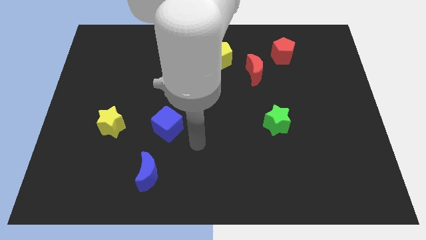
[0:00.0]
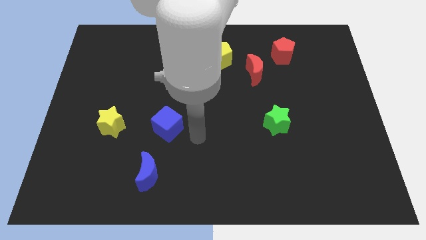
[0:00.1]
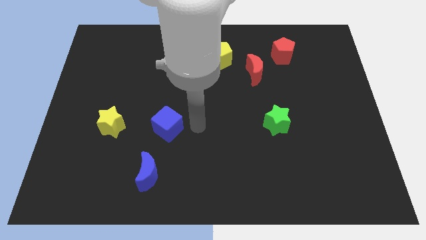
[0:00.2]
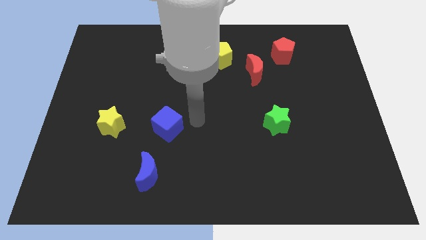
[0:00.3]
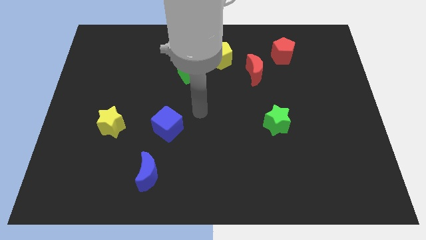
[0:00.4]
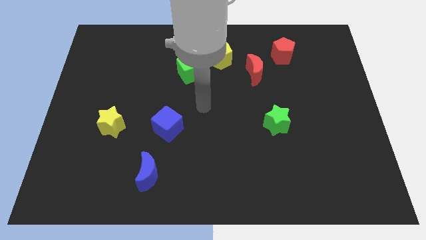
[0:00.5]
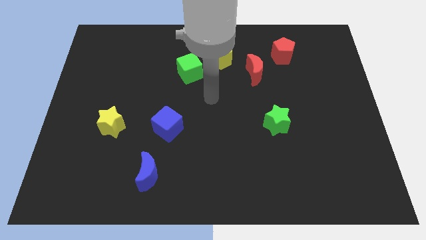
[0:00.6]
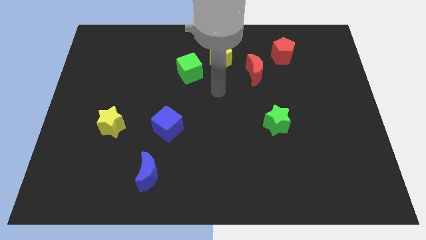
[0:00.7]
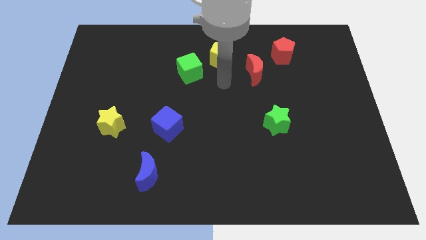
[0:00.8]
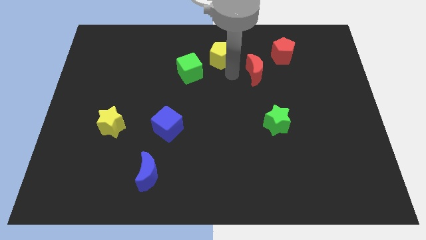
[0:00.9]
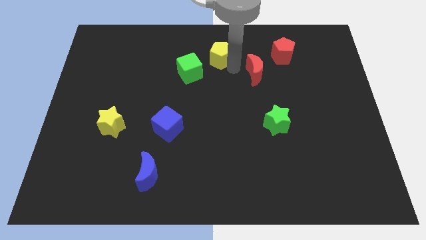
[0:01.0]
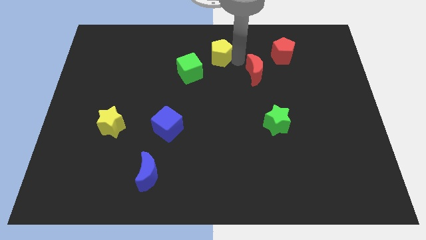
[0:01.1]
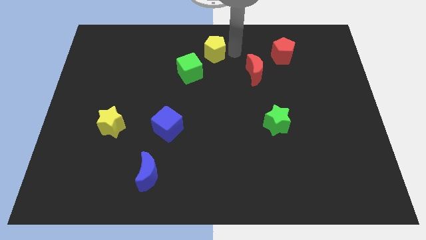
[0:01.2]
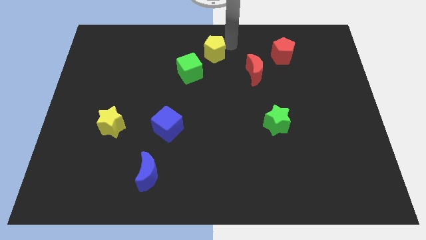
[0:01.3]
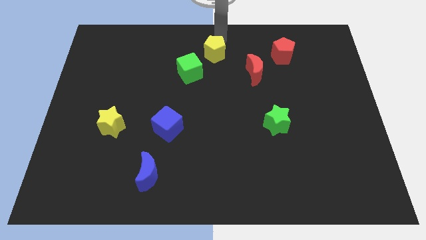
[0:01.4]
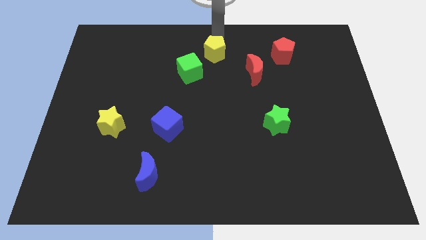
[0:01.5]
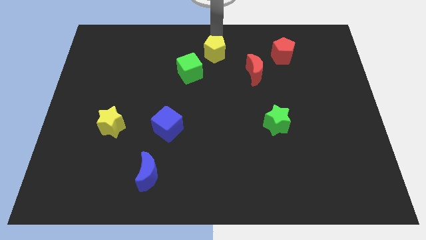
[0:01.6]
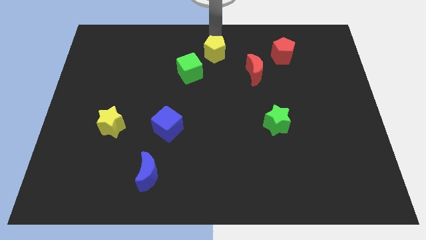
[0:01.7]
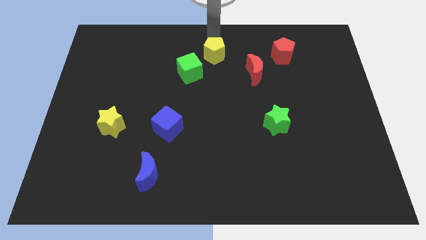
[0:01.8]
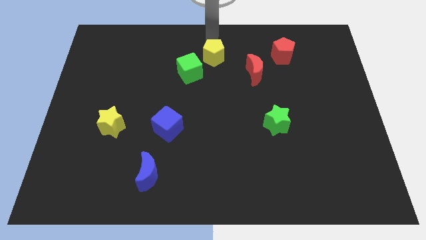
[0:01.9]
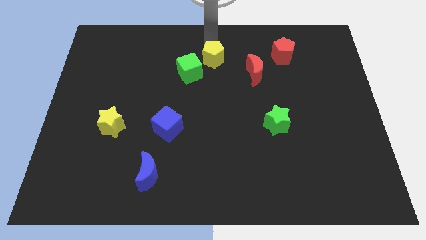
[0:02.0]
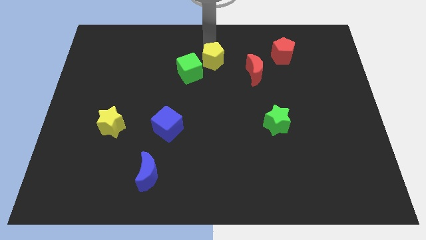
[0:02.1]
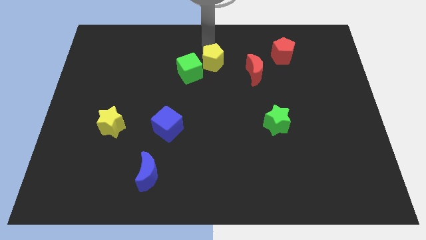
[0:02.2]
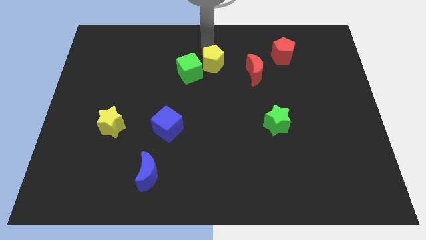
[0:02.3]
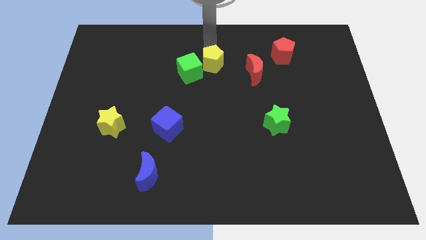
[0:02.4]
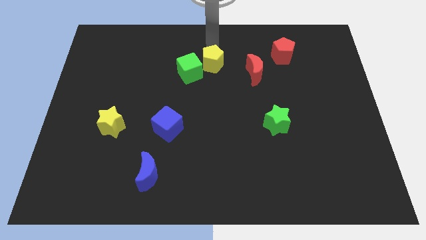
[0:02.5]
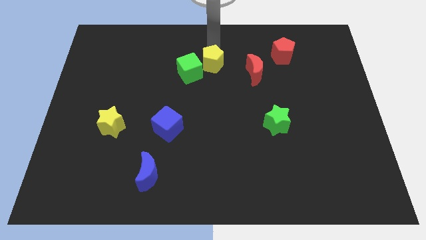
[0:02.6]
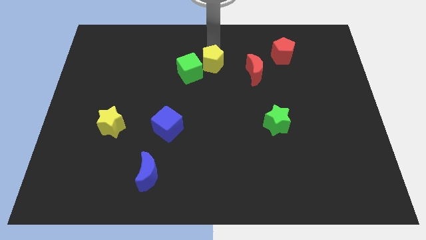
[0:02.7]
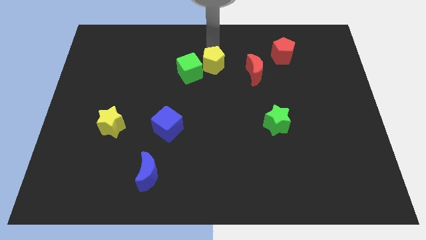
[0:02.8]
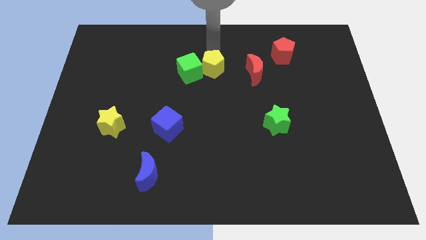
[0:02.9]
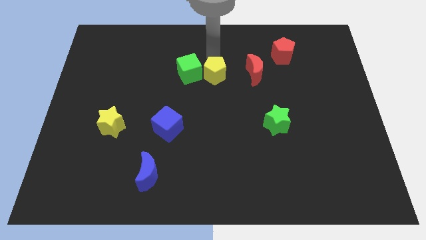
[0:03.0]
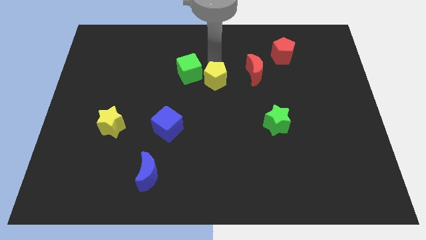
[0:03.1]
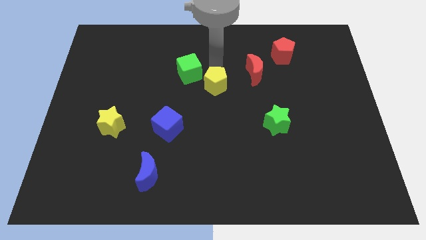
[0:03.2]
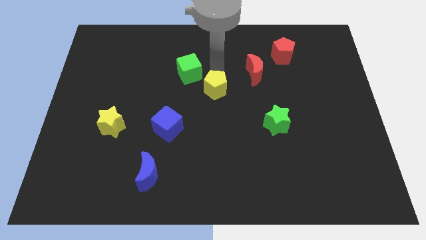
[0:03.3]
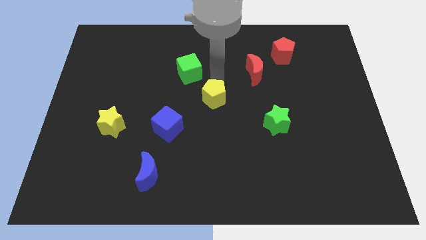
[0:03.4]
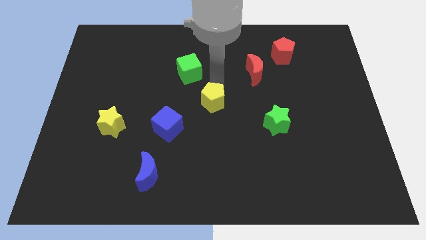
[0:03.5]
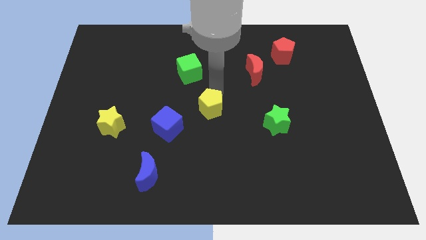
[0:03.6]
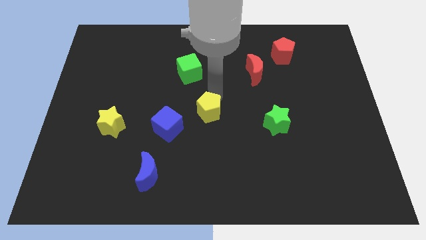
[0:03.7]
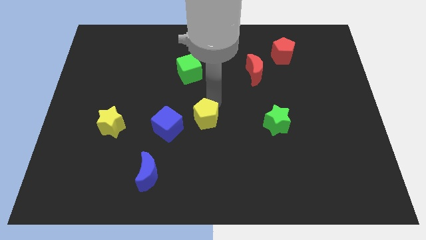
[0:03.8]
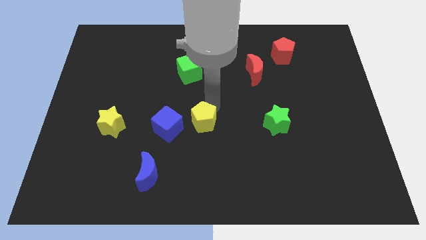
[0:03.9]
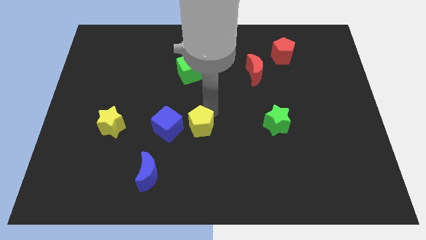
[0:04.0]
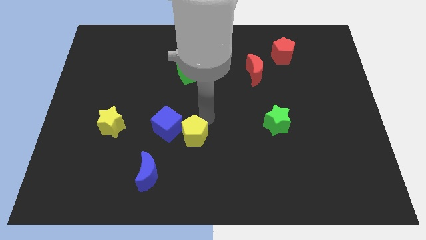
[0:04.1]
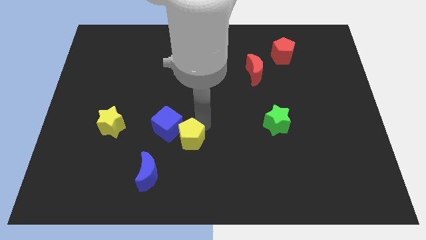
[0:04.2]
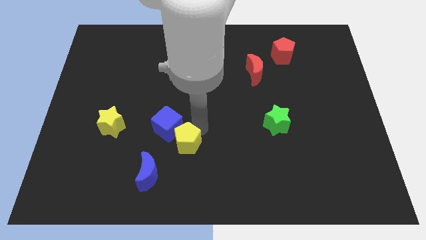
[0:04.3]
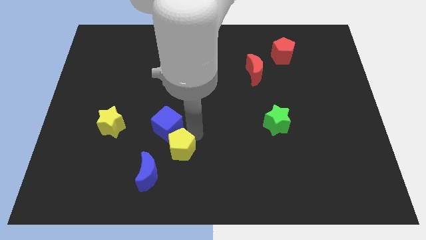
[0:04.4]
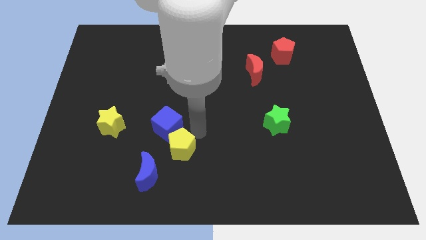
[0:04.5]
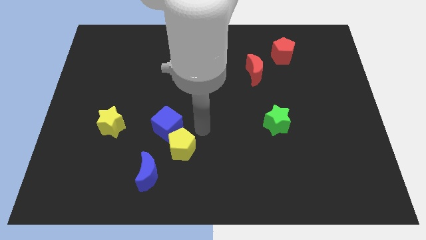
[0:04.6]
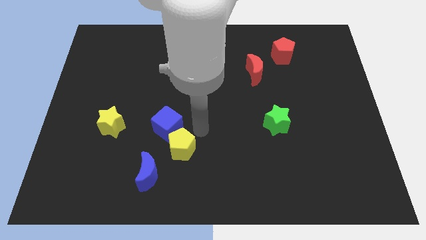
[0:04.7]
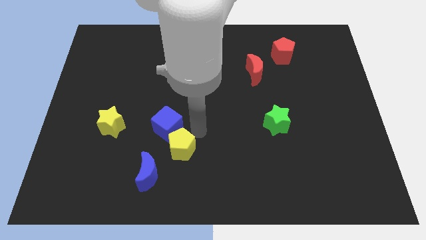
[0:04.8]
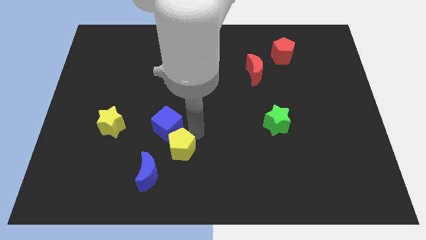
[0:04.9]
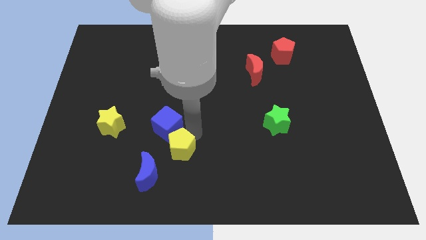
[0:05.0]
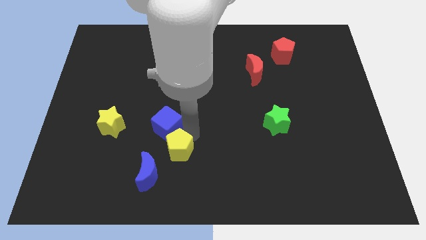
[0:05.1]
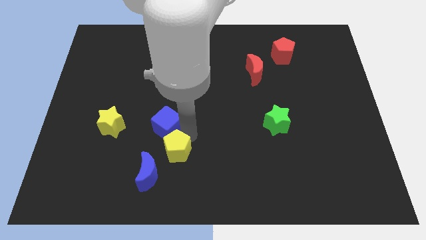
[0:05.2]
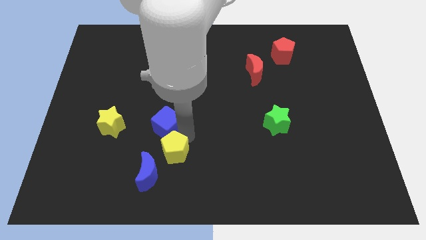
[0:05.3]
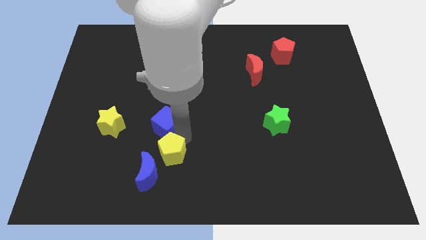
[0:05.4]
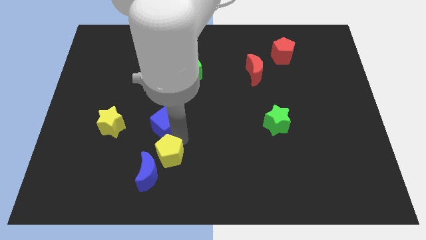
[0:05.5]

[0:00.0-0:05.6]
push the yellow pentagon close to the blue moon

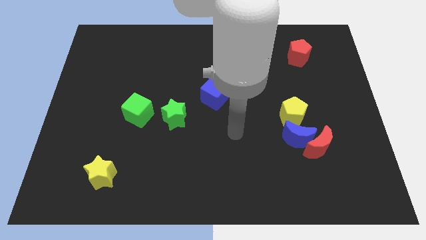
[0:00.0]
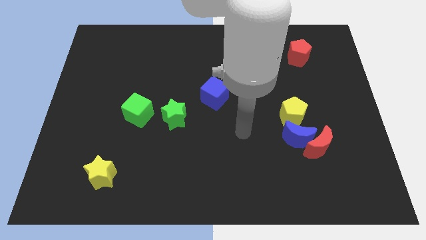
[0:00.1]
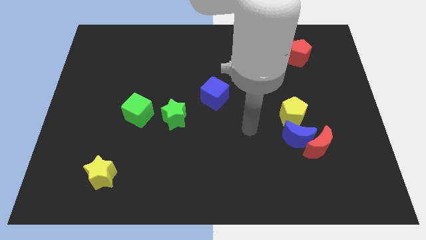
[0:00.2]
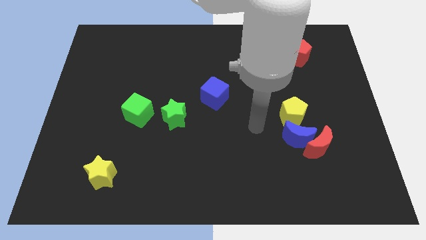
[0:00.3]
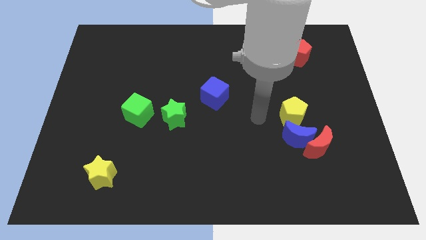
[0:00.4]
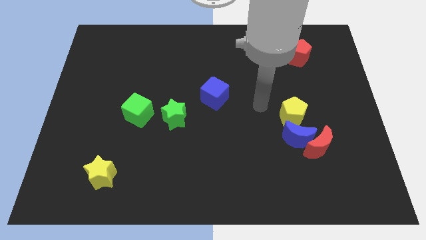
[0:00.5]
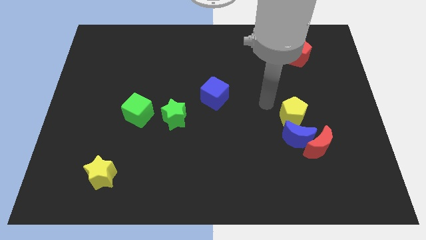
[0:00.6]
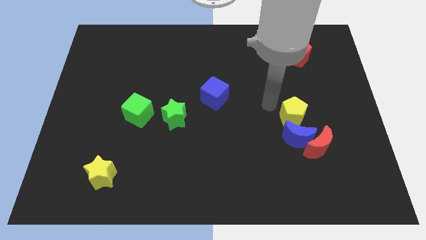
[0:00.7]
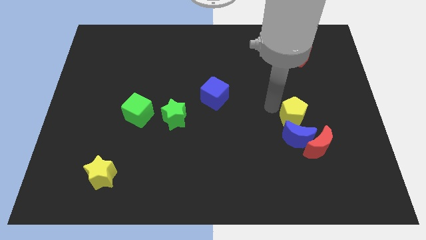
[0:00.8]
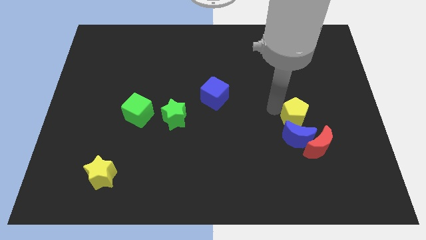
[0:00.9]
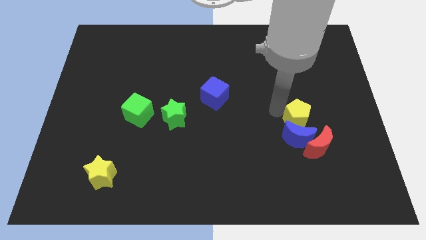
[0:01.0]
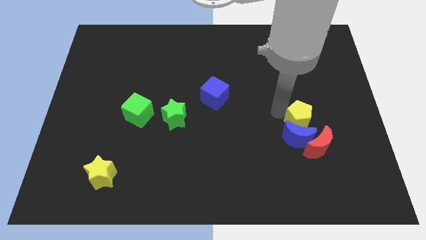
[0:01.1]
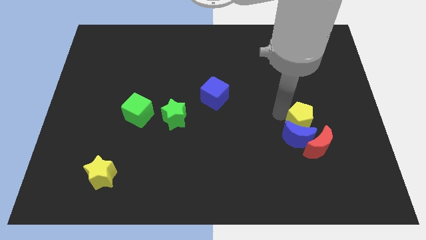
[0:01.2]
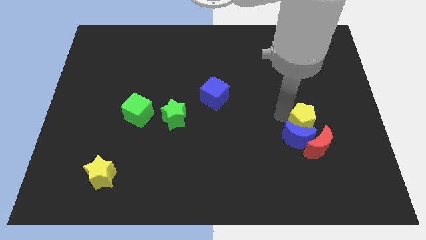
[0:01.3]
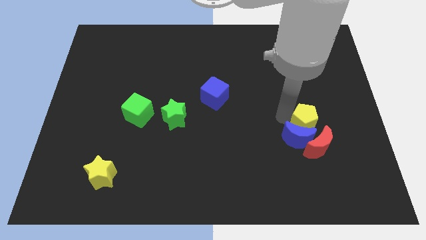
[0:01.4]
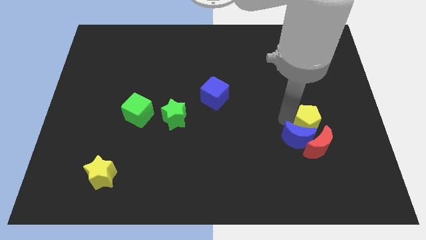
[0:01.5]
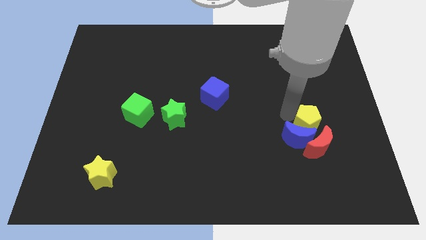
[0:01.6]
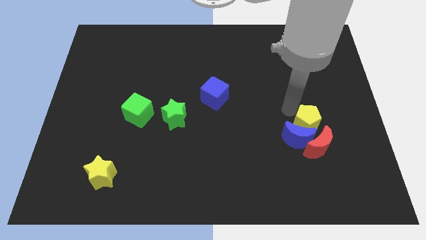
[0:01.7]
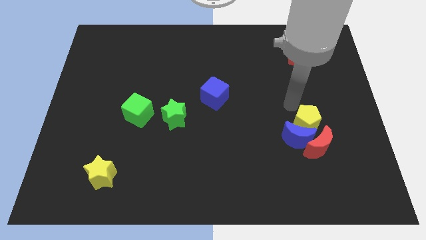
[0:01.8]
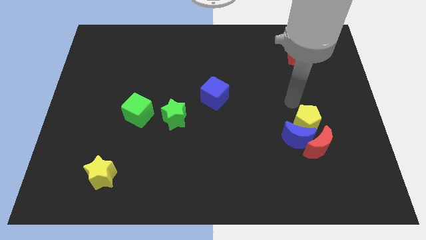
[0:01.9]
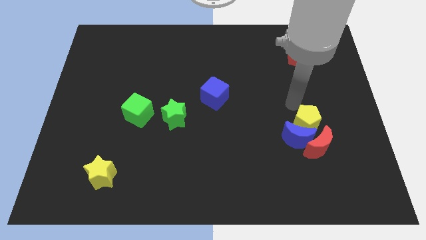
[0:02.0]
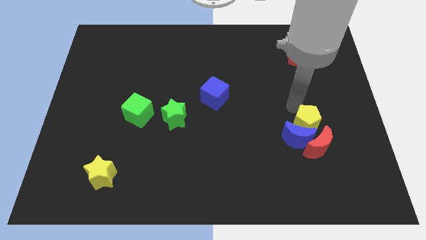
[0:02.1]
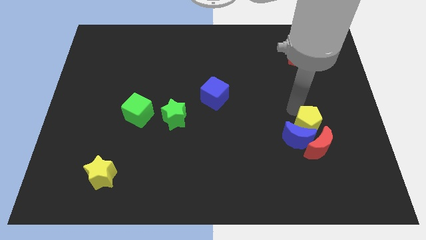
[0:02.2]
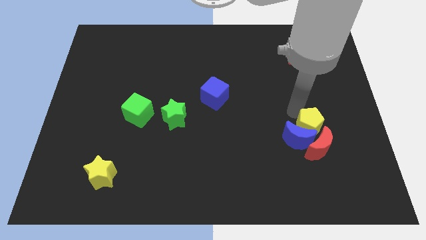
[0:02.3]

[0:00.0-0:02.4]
move the yellow pentagon to the red moon
